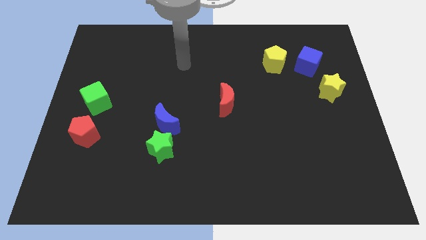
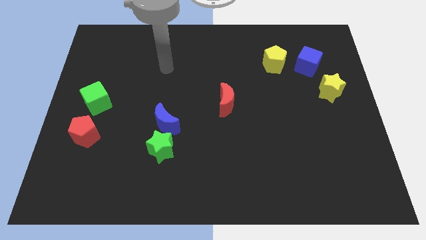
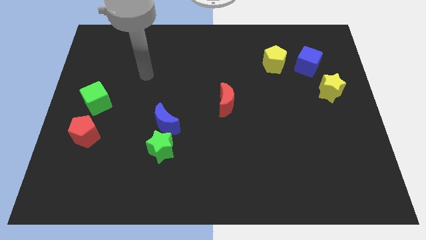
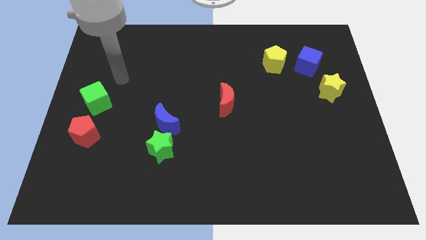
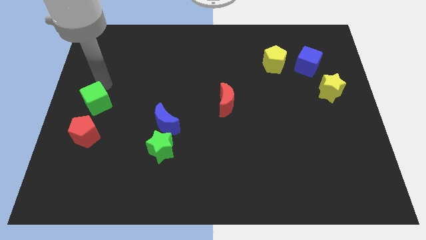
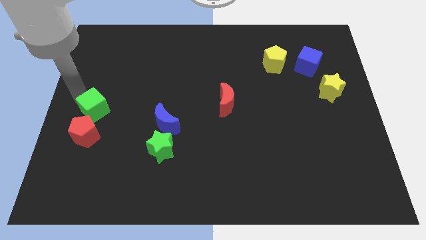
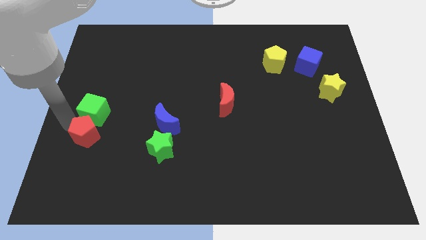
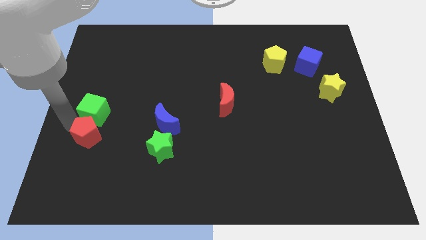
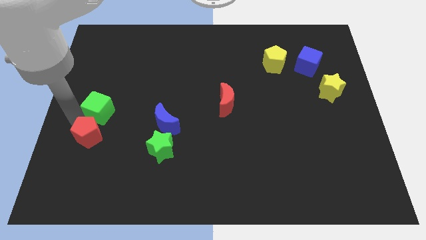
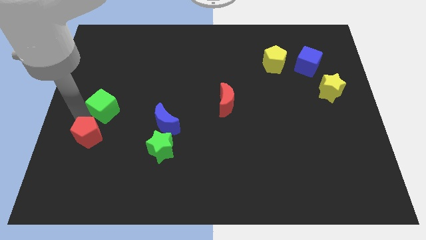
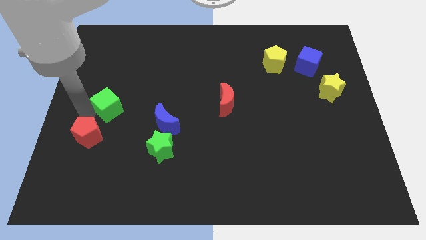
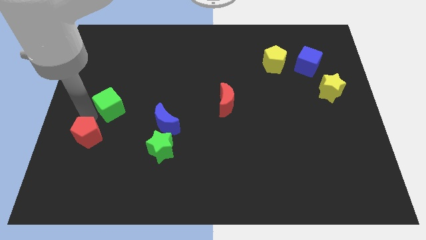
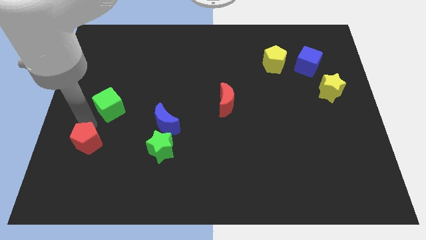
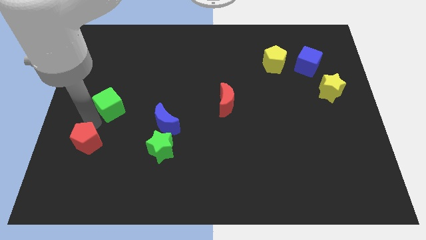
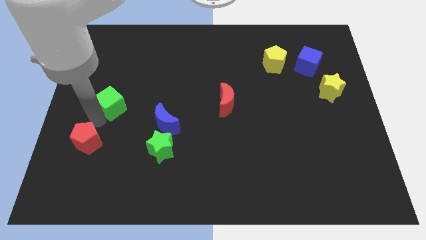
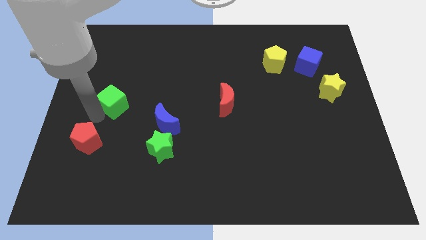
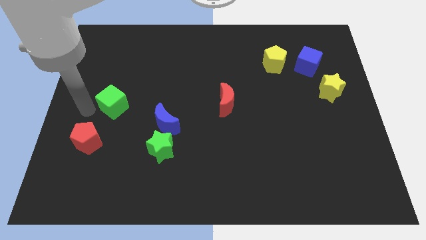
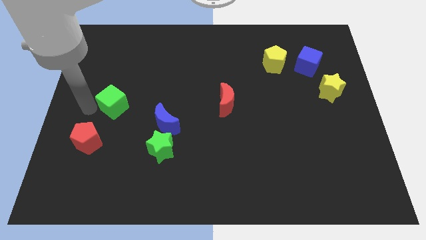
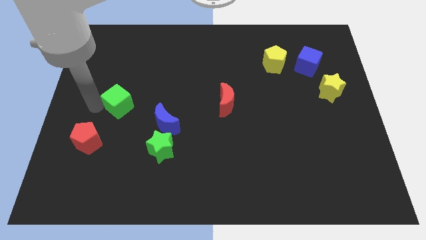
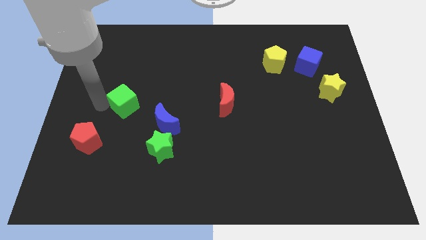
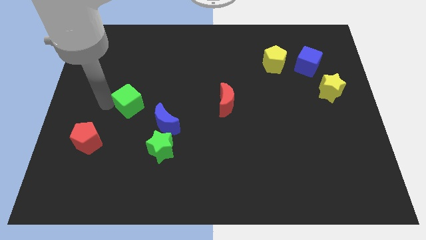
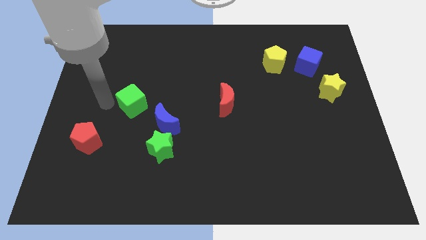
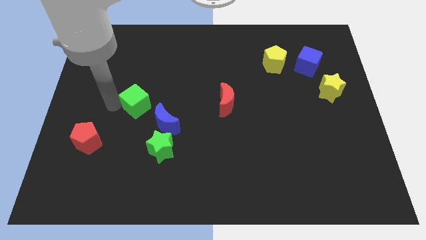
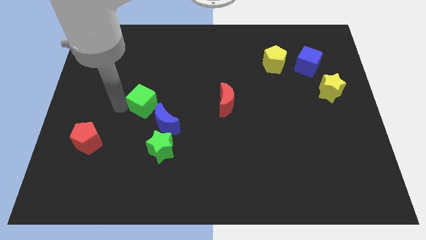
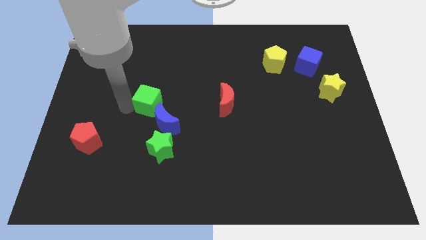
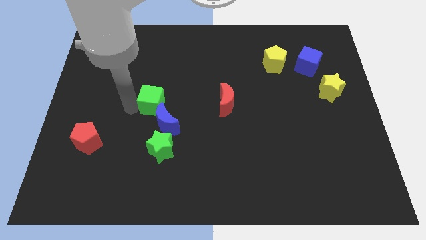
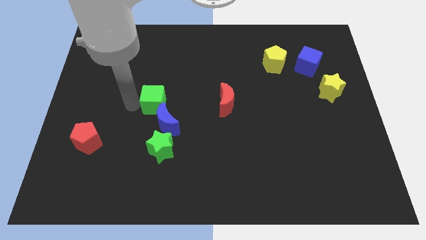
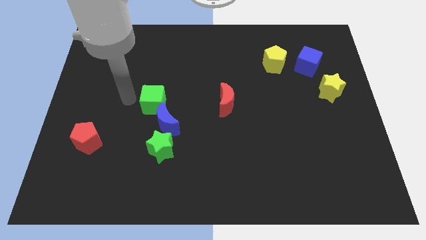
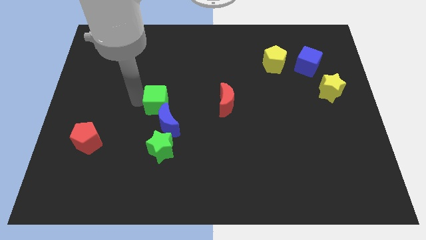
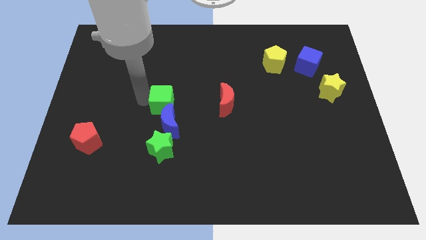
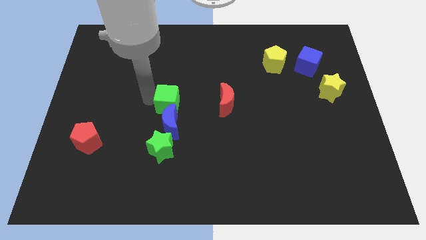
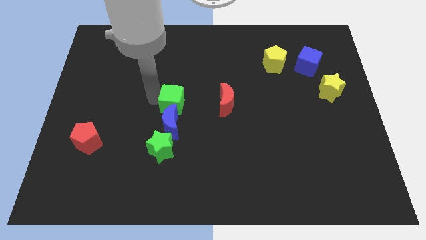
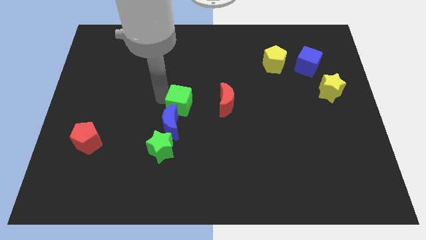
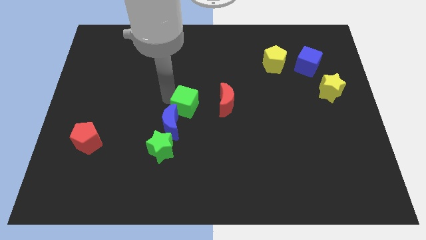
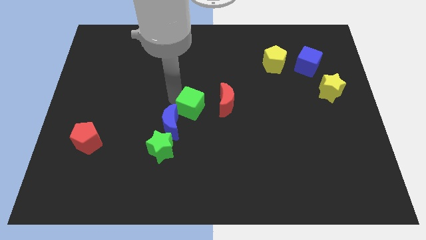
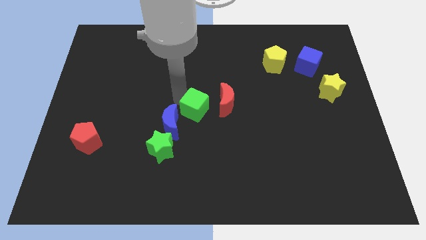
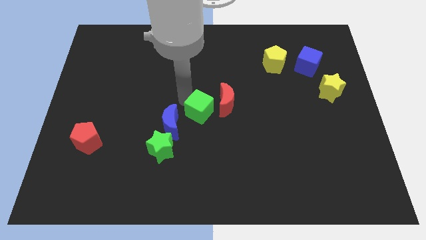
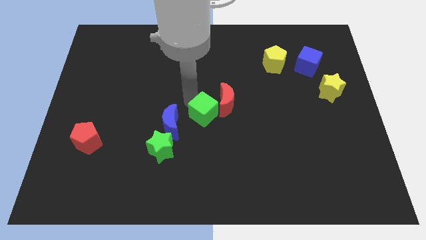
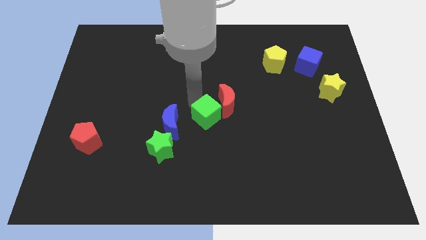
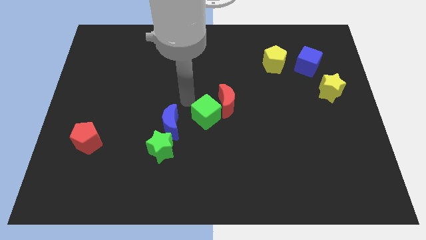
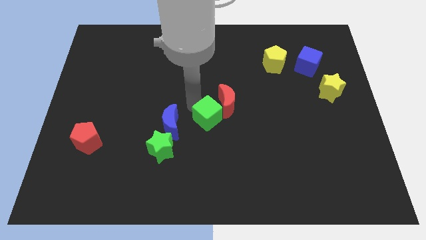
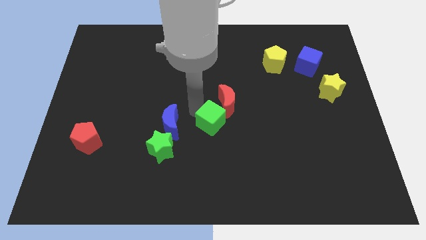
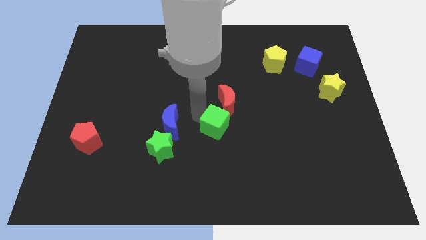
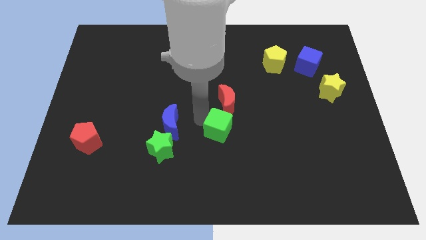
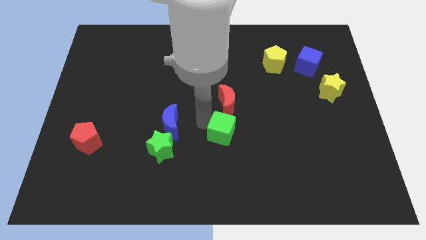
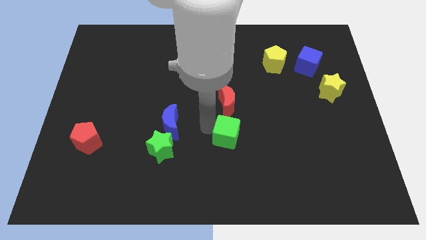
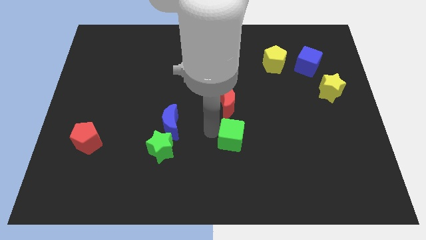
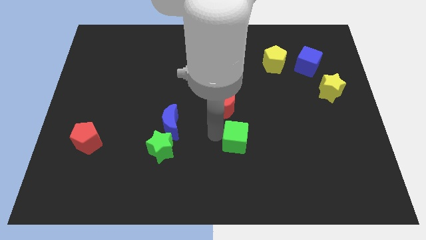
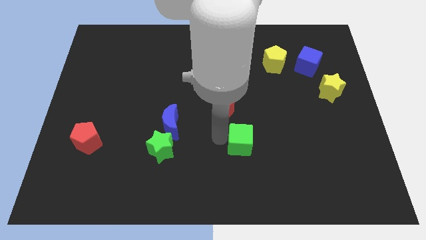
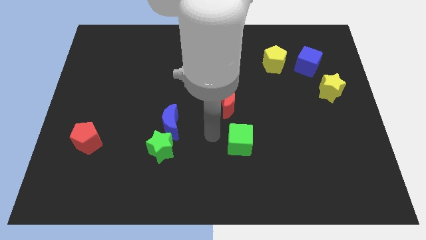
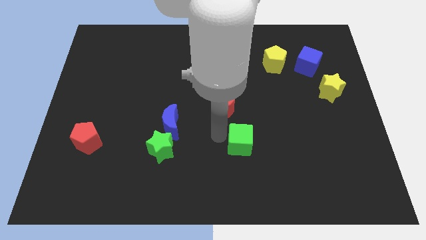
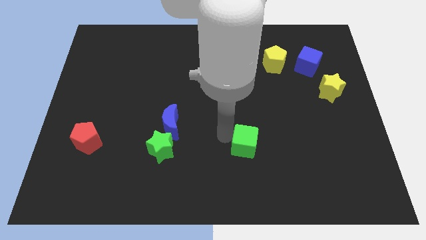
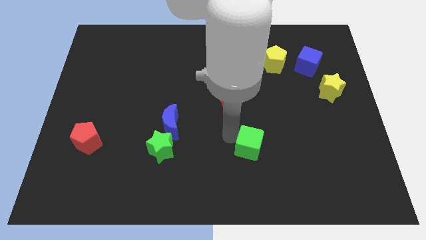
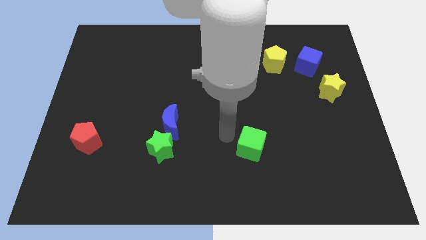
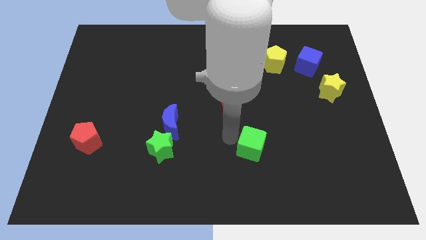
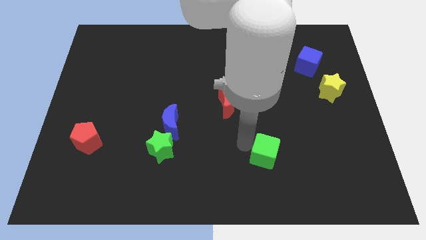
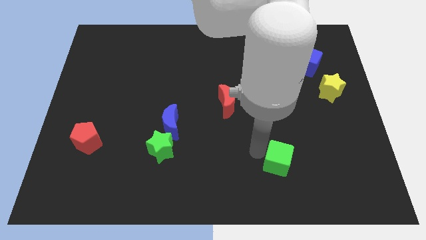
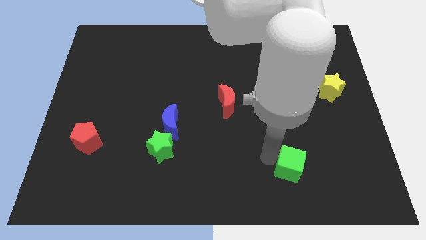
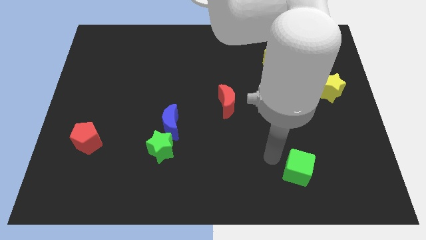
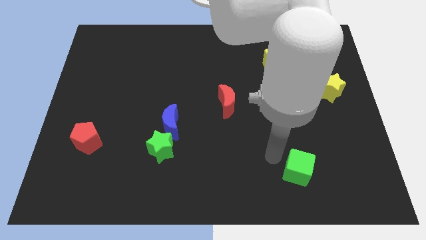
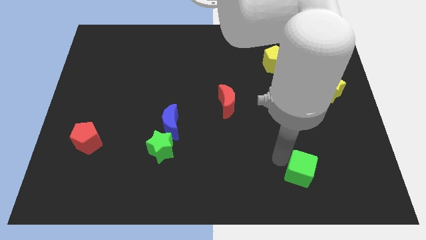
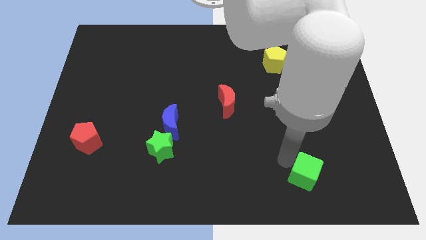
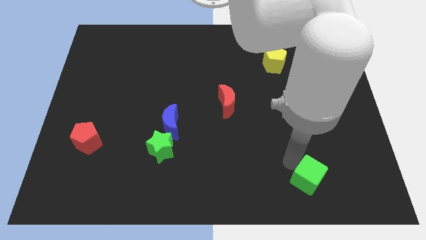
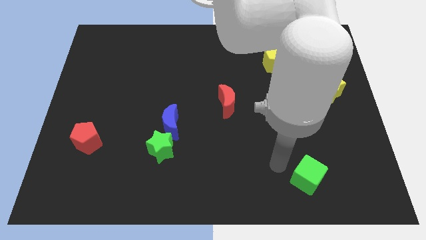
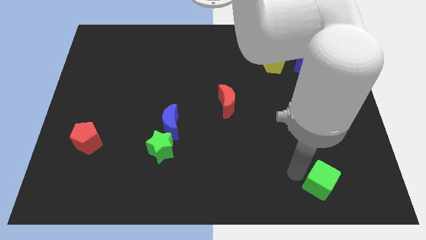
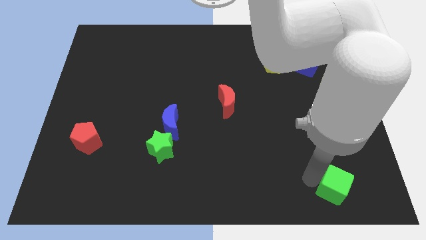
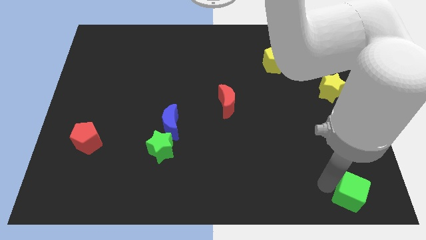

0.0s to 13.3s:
move the green cube to the lower right corner
